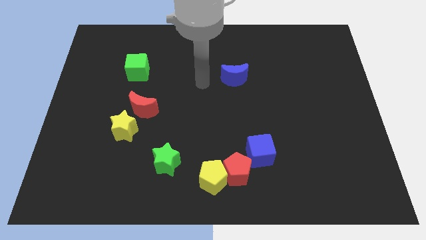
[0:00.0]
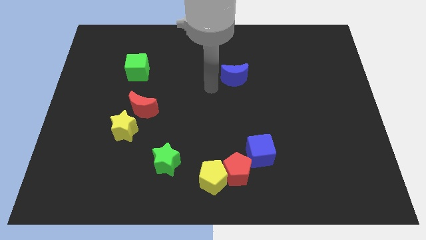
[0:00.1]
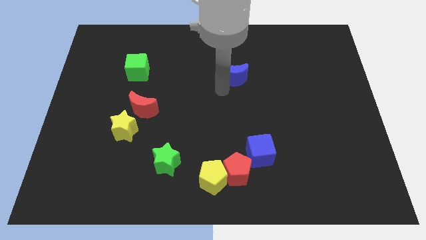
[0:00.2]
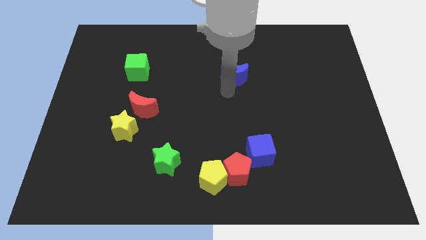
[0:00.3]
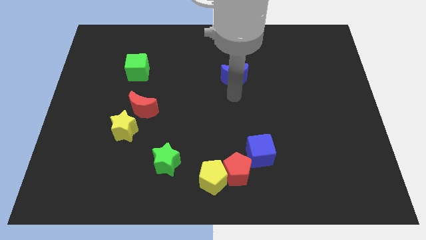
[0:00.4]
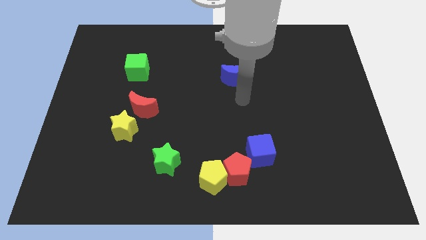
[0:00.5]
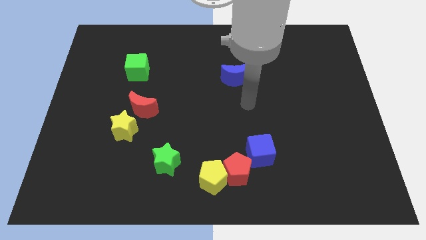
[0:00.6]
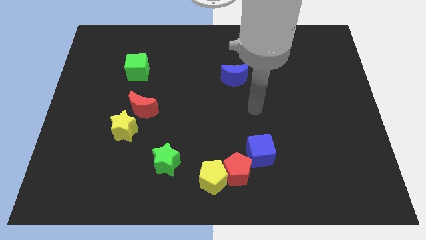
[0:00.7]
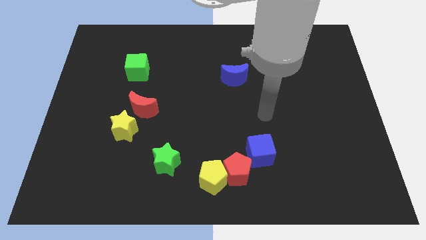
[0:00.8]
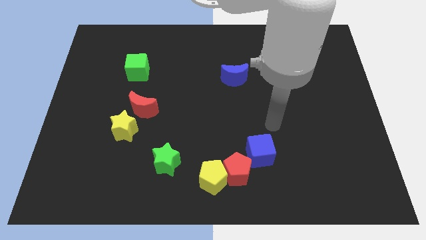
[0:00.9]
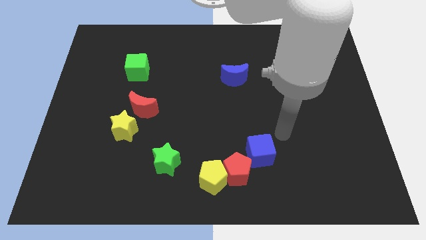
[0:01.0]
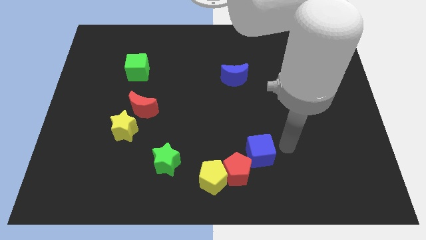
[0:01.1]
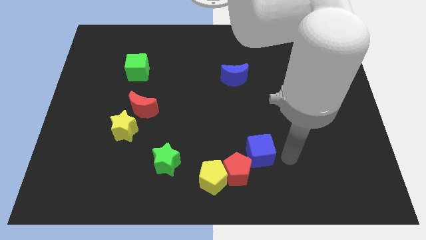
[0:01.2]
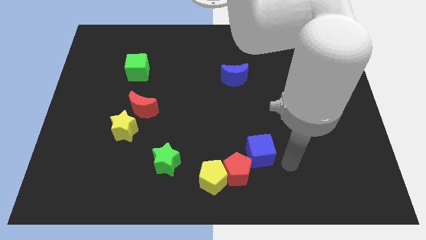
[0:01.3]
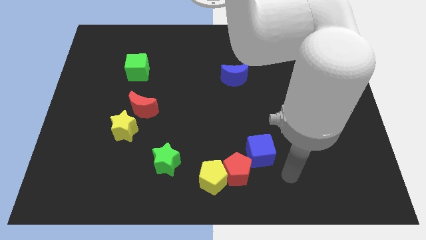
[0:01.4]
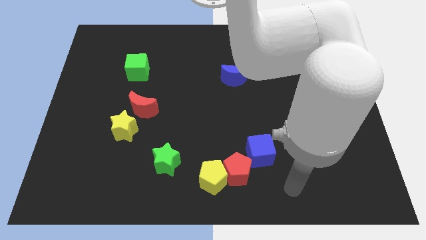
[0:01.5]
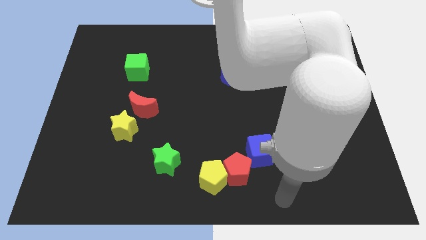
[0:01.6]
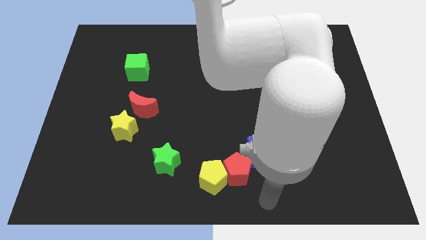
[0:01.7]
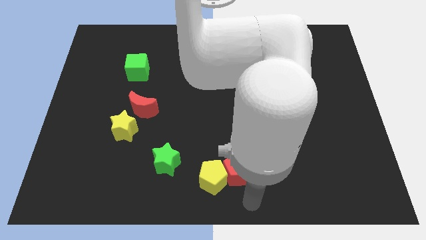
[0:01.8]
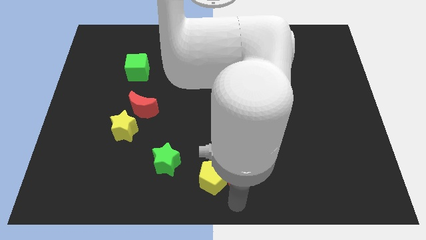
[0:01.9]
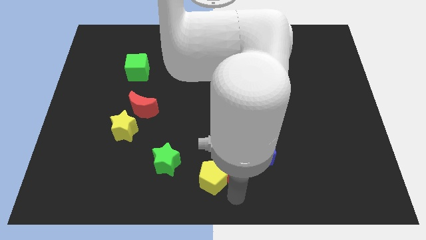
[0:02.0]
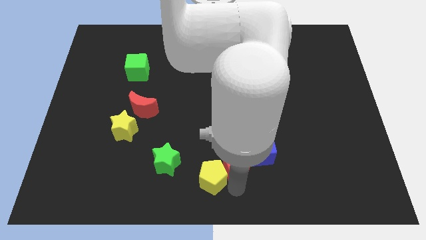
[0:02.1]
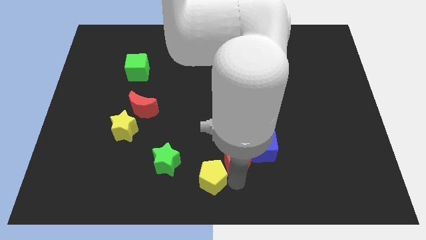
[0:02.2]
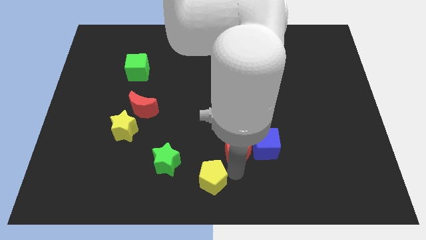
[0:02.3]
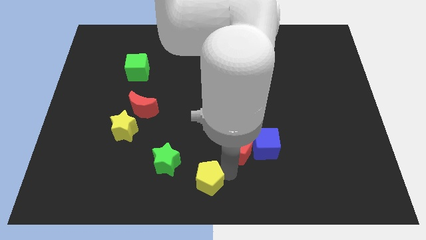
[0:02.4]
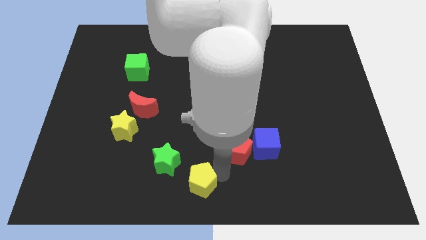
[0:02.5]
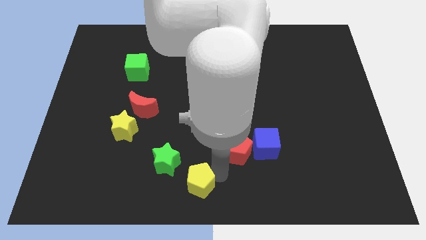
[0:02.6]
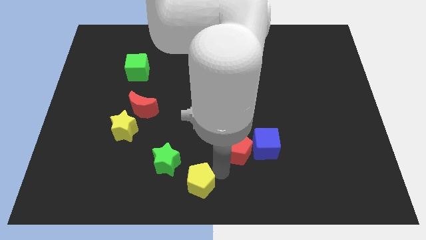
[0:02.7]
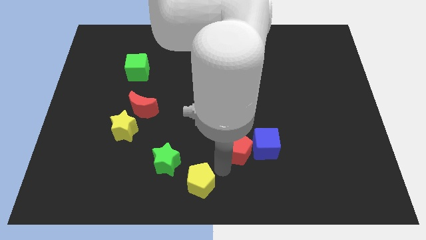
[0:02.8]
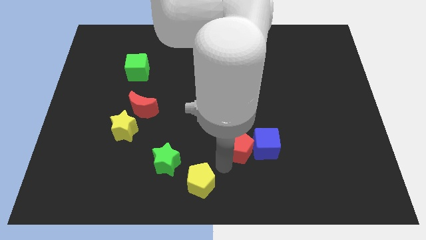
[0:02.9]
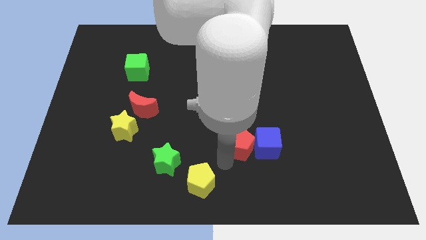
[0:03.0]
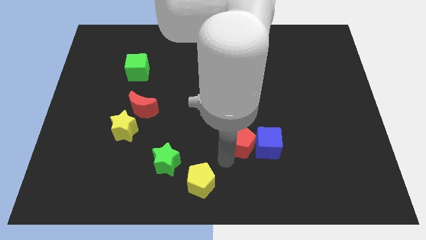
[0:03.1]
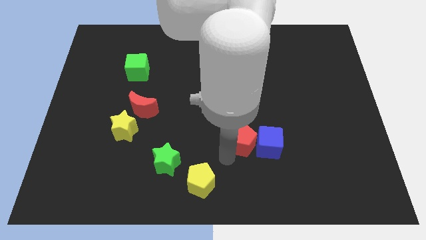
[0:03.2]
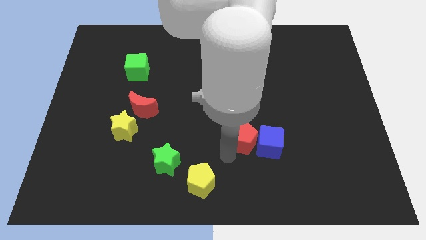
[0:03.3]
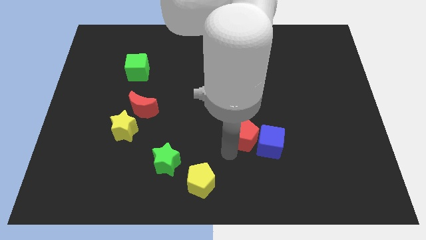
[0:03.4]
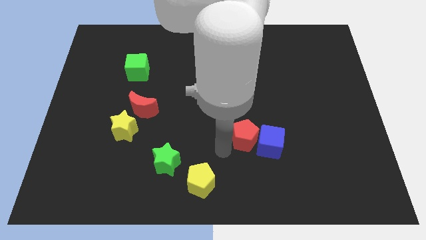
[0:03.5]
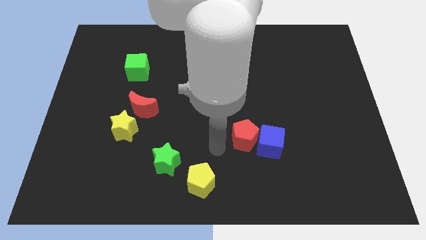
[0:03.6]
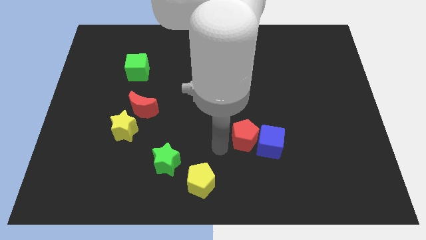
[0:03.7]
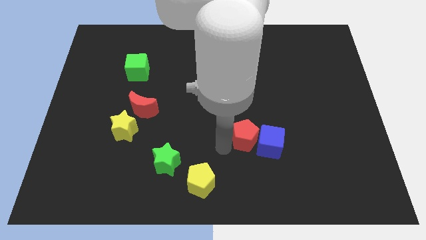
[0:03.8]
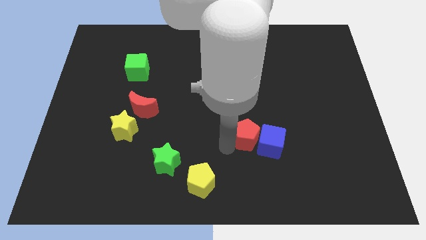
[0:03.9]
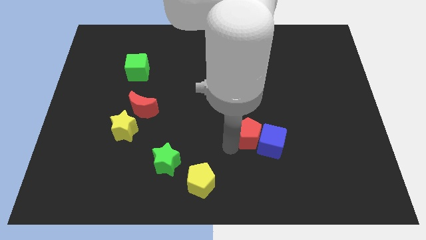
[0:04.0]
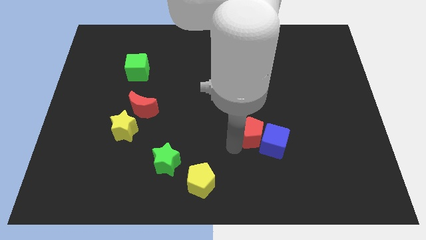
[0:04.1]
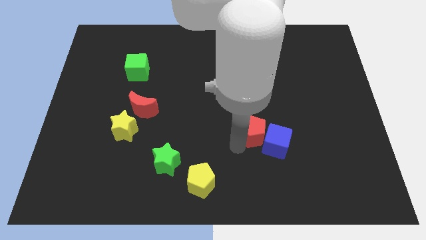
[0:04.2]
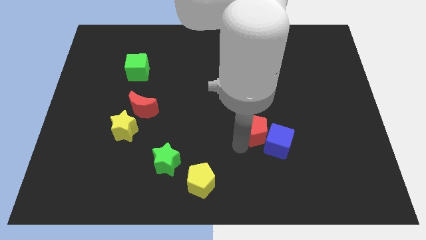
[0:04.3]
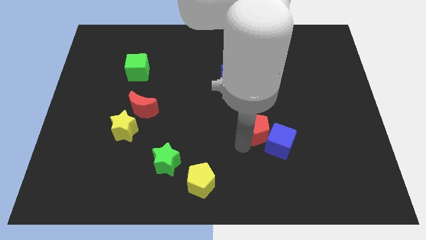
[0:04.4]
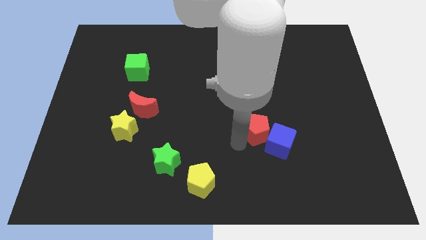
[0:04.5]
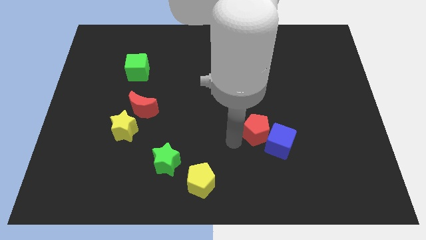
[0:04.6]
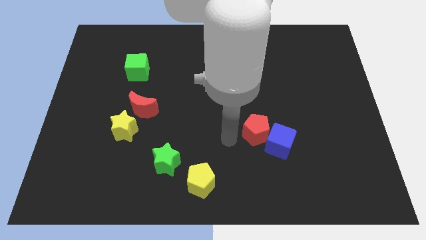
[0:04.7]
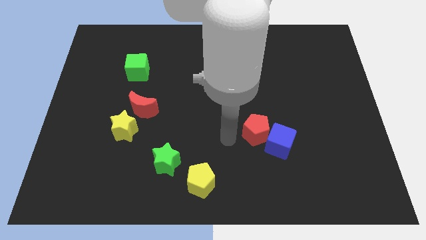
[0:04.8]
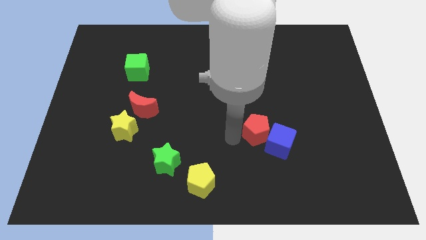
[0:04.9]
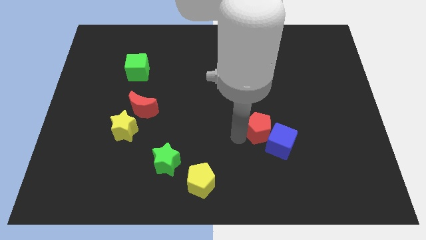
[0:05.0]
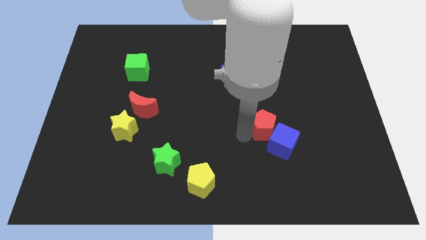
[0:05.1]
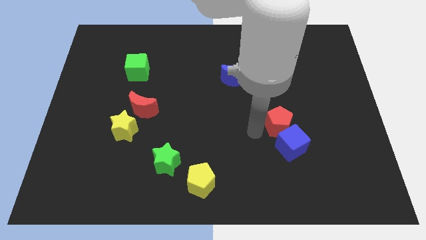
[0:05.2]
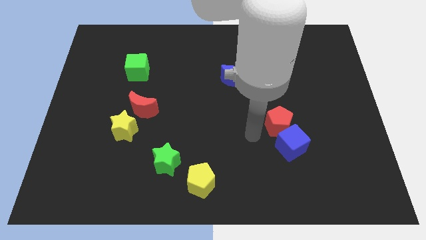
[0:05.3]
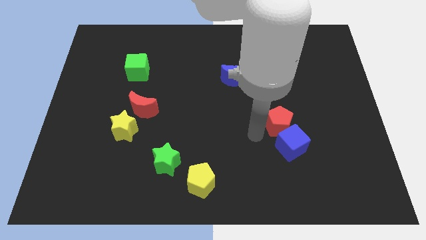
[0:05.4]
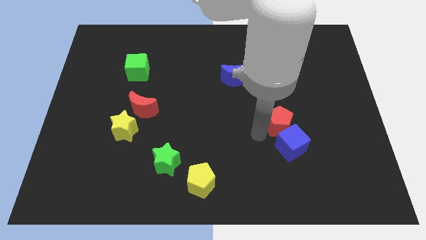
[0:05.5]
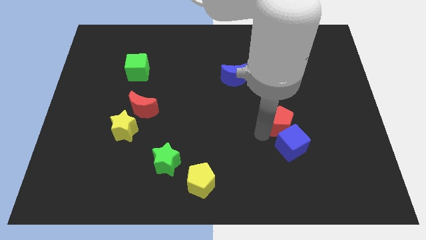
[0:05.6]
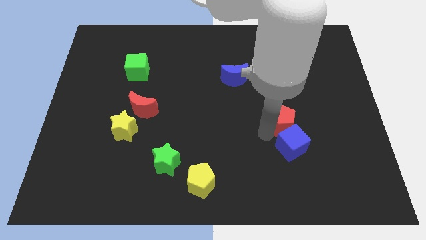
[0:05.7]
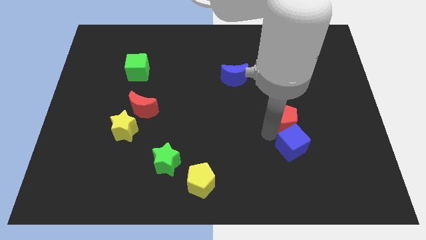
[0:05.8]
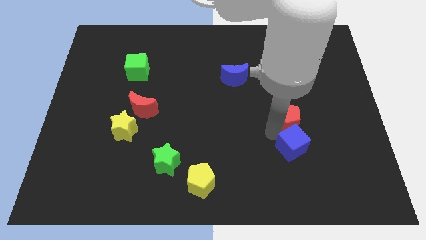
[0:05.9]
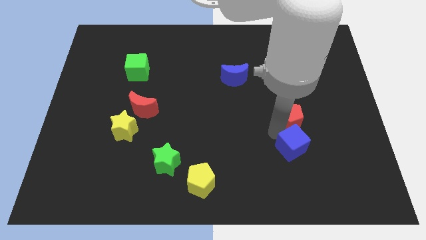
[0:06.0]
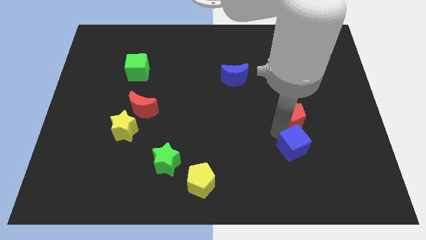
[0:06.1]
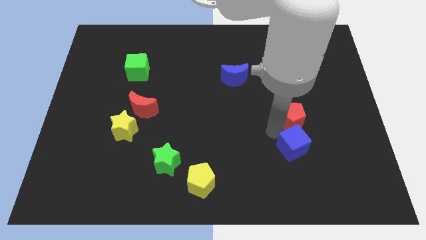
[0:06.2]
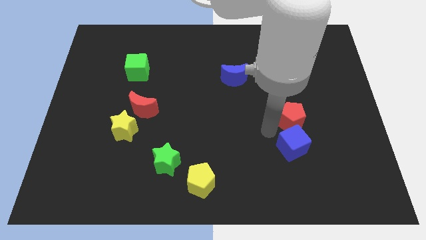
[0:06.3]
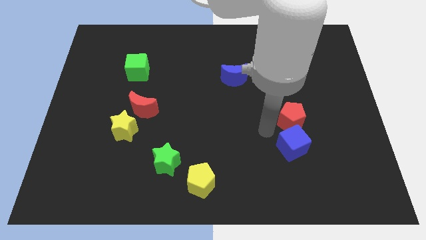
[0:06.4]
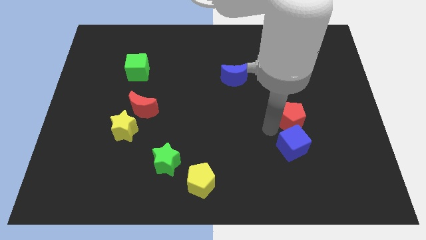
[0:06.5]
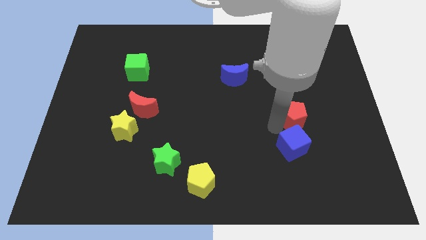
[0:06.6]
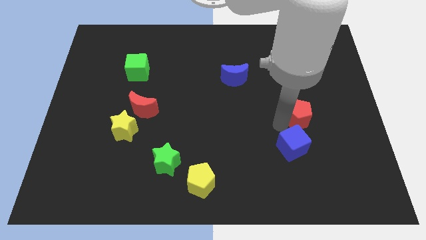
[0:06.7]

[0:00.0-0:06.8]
push the red pentagon up and right

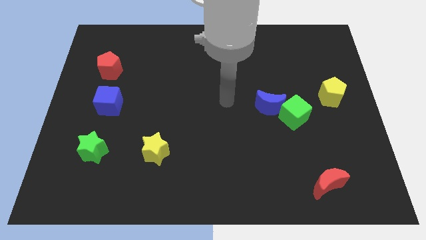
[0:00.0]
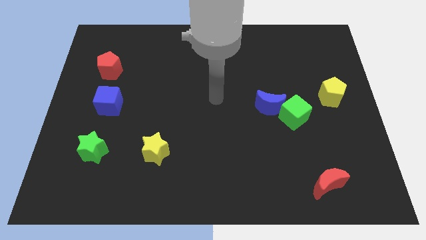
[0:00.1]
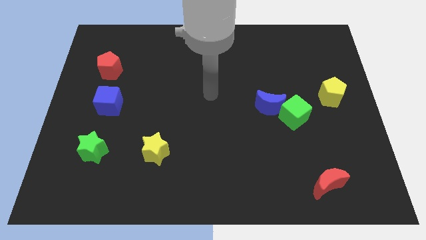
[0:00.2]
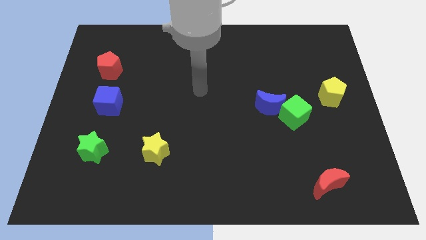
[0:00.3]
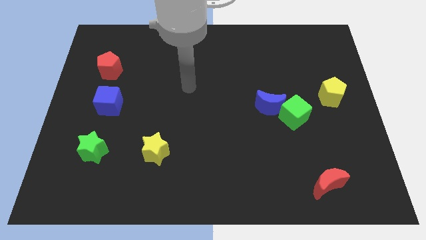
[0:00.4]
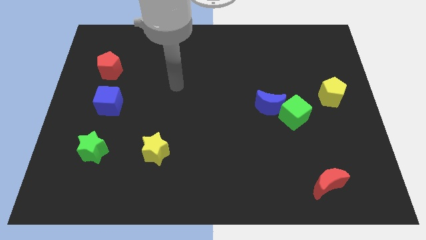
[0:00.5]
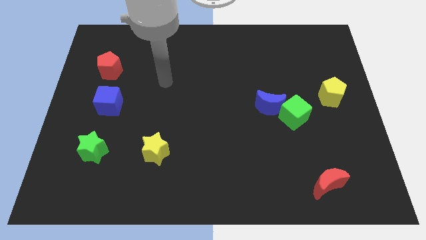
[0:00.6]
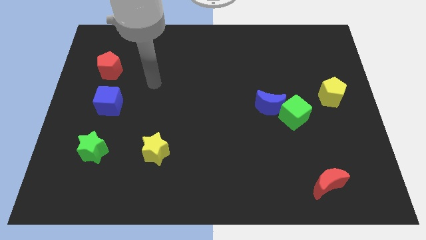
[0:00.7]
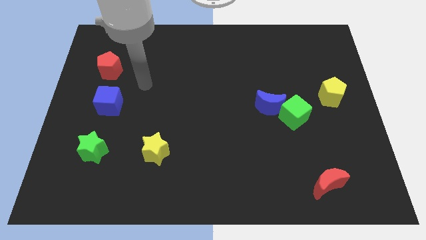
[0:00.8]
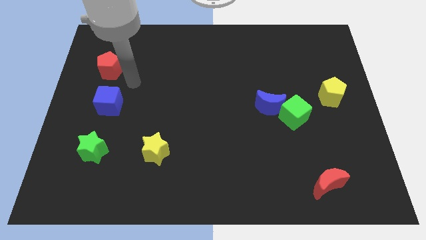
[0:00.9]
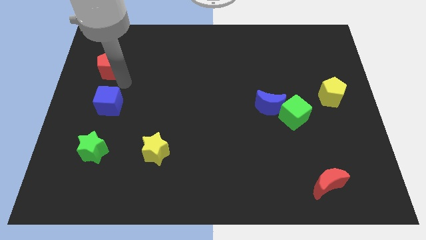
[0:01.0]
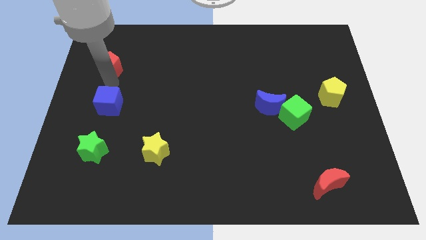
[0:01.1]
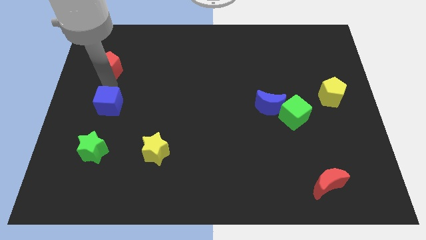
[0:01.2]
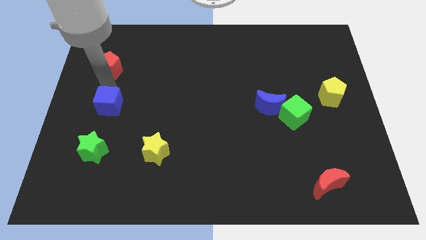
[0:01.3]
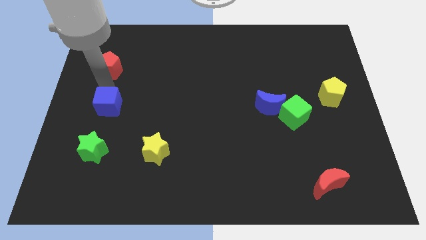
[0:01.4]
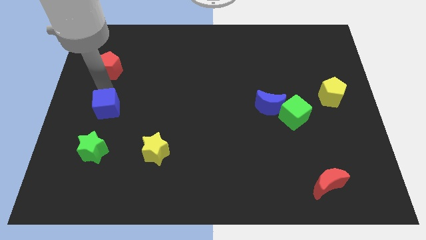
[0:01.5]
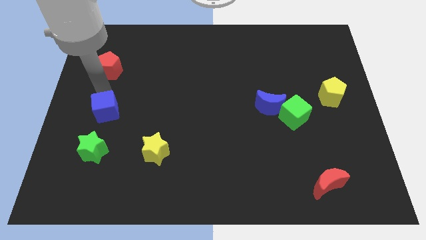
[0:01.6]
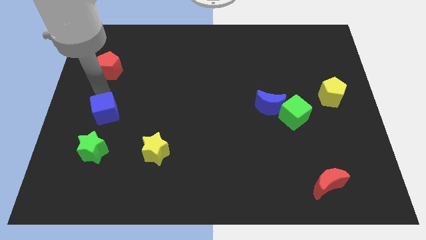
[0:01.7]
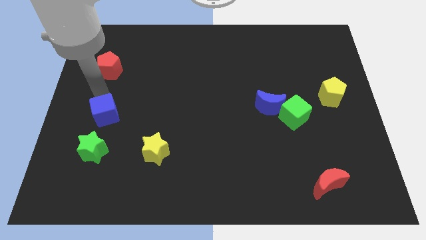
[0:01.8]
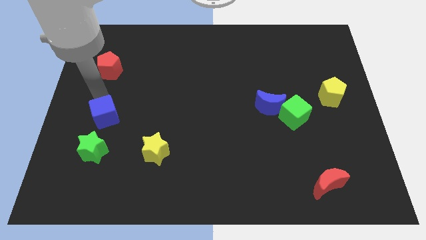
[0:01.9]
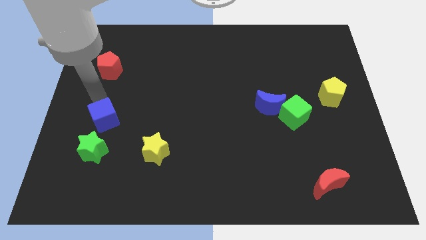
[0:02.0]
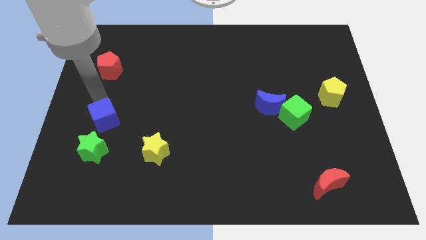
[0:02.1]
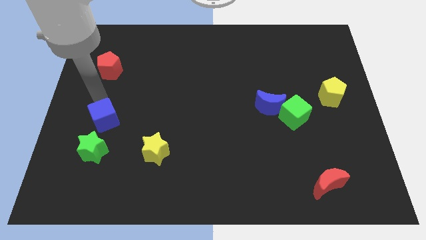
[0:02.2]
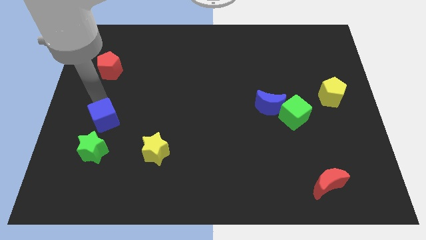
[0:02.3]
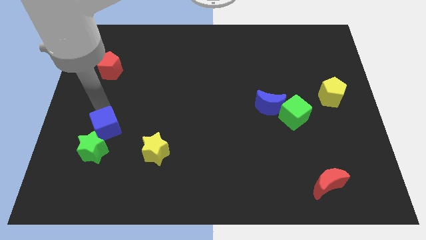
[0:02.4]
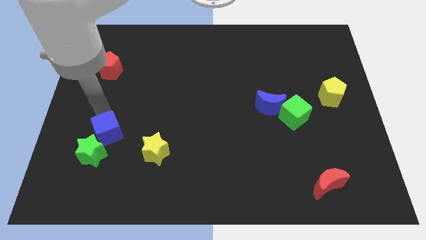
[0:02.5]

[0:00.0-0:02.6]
push the blue cube down a little bit
